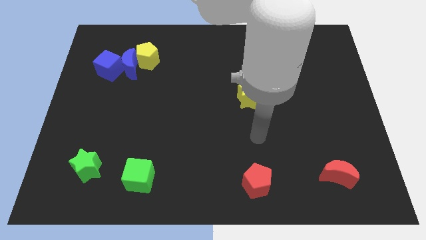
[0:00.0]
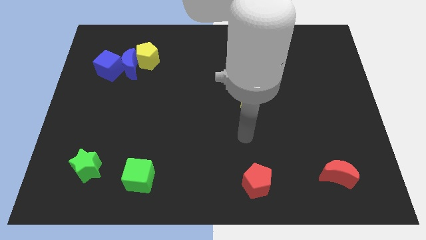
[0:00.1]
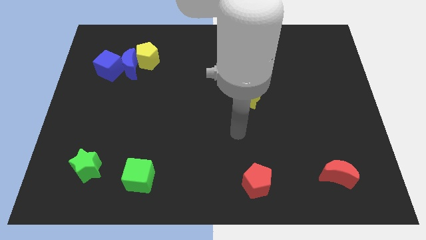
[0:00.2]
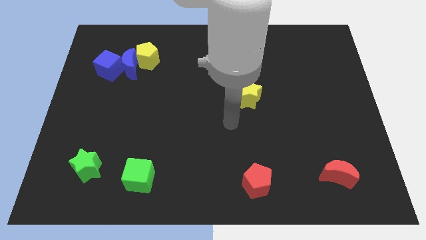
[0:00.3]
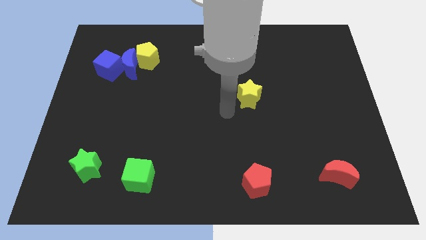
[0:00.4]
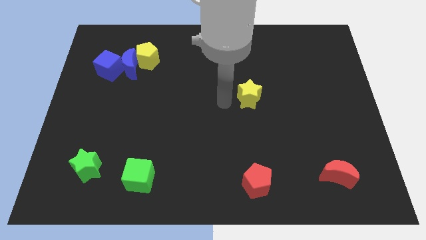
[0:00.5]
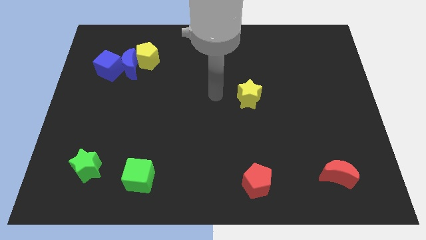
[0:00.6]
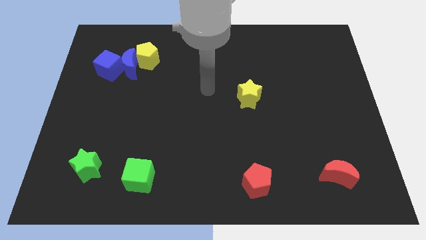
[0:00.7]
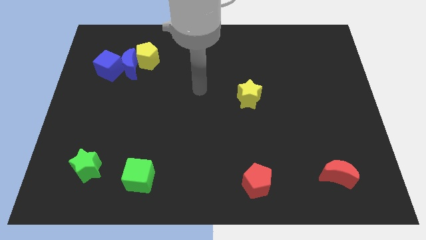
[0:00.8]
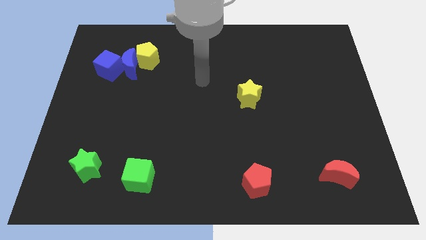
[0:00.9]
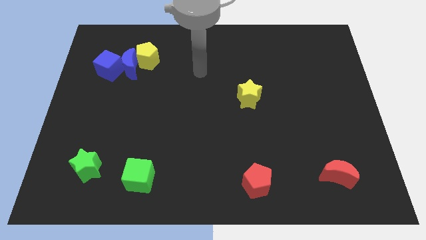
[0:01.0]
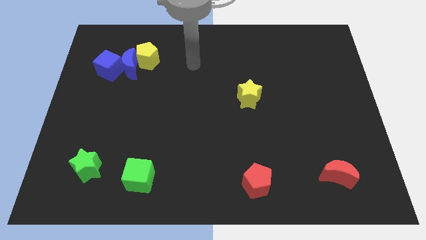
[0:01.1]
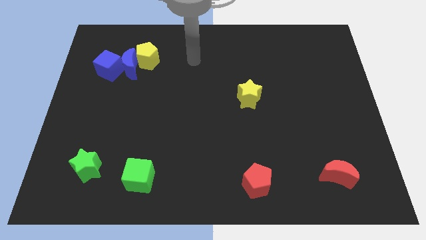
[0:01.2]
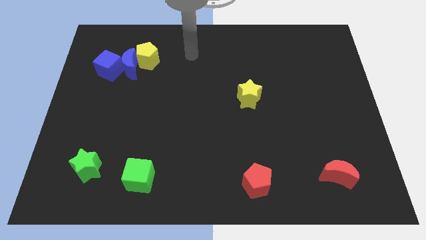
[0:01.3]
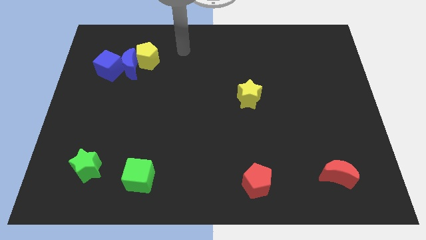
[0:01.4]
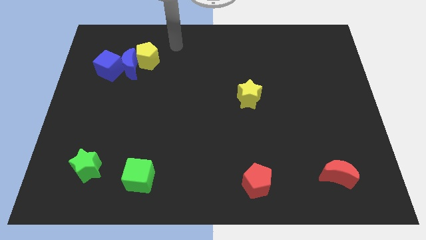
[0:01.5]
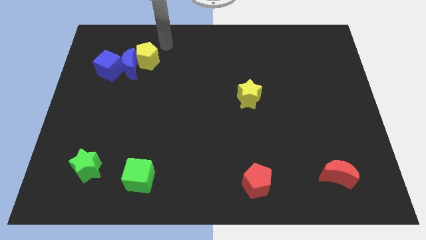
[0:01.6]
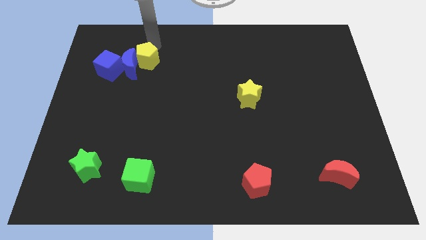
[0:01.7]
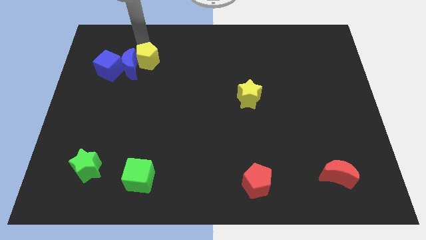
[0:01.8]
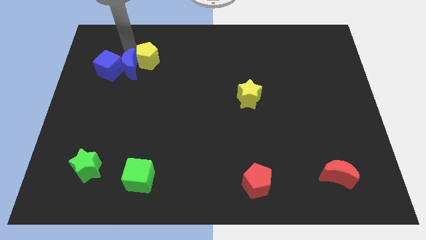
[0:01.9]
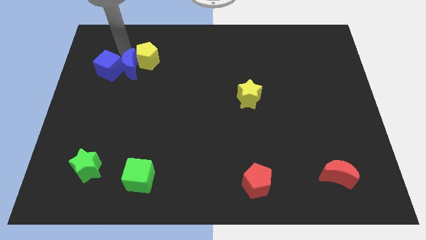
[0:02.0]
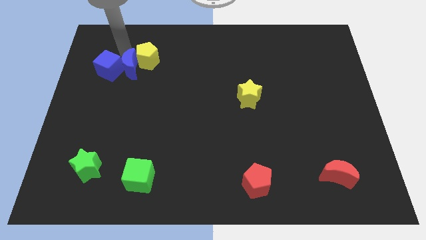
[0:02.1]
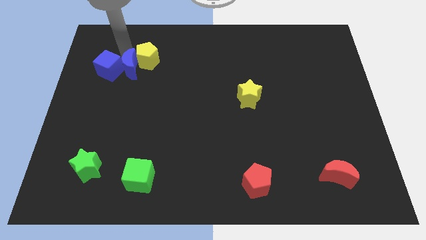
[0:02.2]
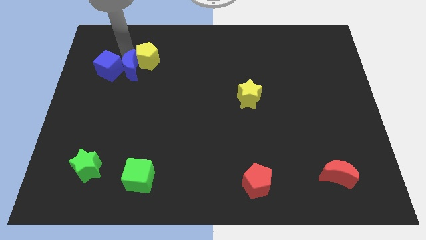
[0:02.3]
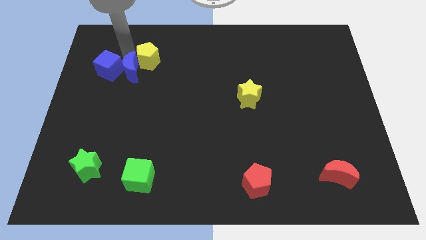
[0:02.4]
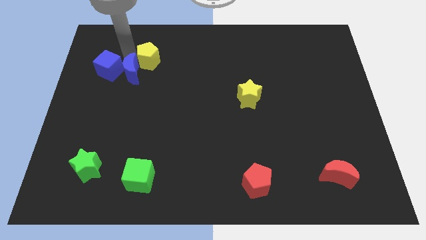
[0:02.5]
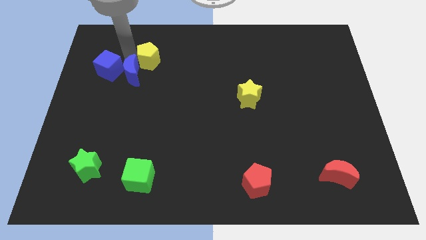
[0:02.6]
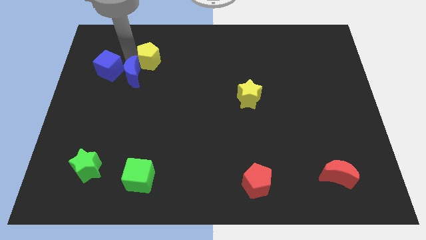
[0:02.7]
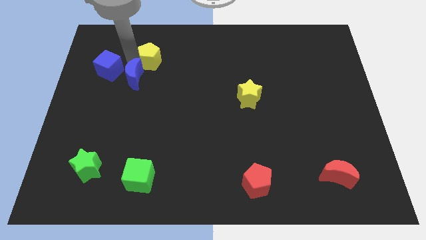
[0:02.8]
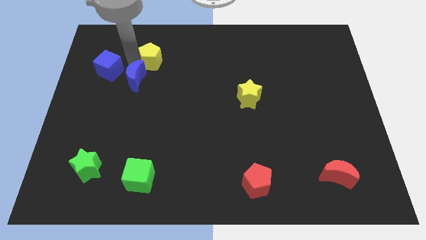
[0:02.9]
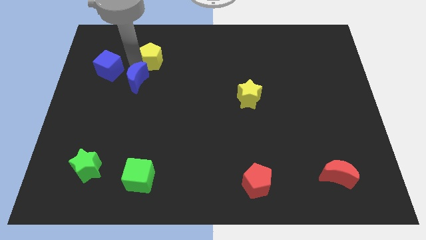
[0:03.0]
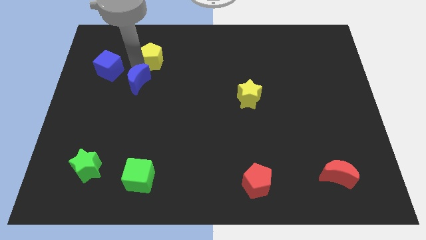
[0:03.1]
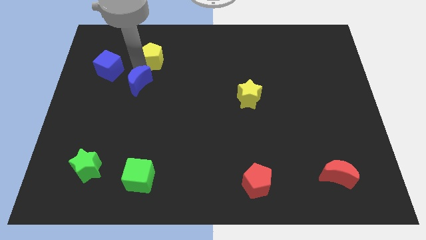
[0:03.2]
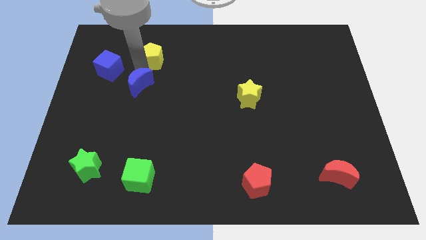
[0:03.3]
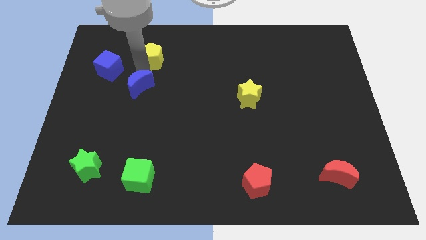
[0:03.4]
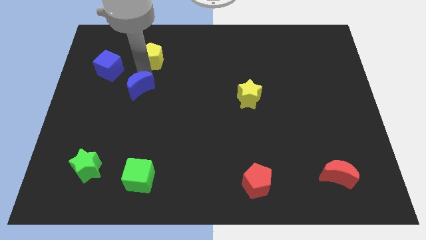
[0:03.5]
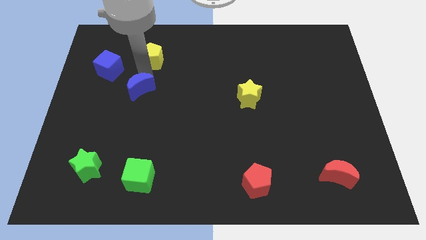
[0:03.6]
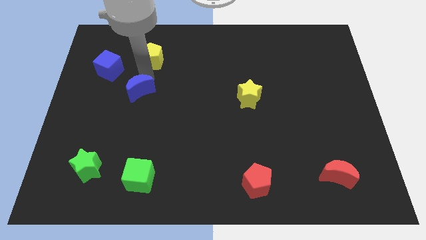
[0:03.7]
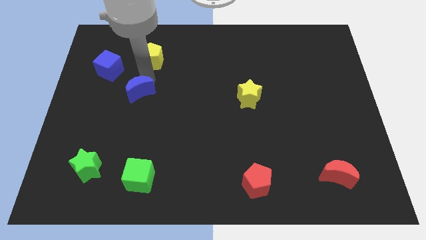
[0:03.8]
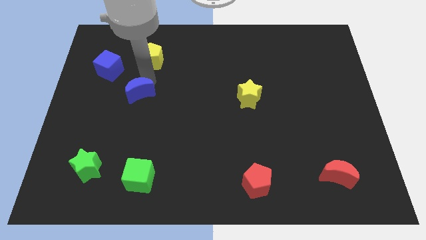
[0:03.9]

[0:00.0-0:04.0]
pull the blue moon apart from the blue cube and yellow pentagon

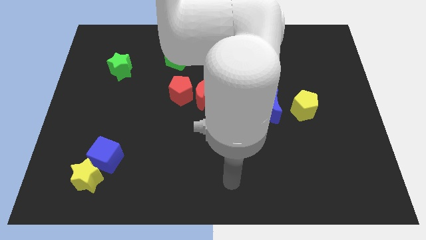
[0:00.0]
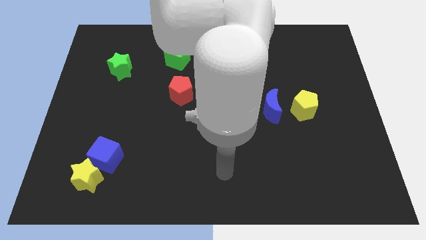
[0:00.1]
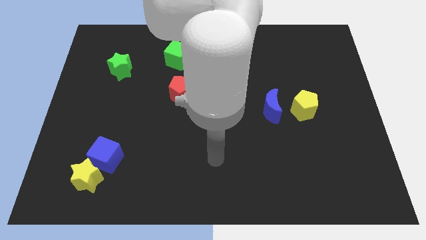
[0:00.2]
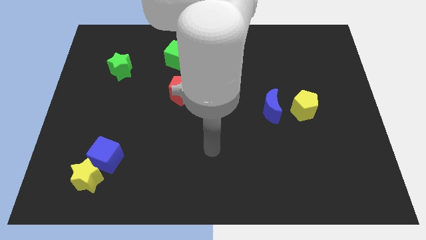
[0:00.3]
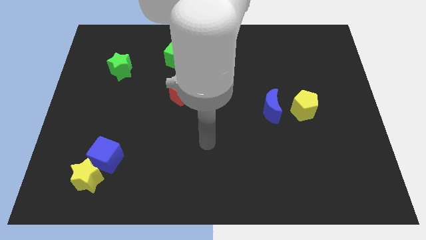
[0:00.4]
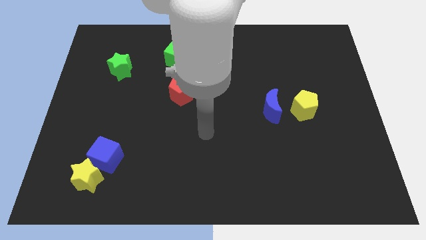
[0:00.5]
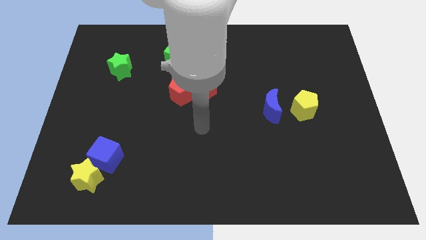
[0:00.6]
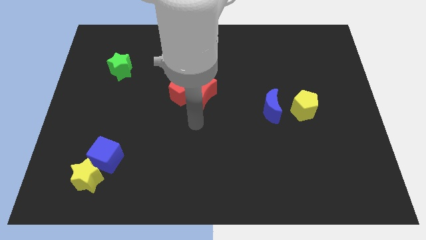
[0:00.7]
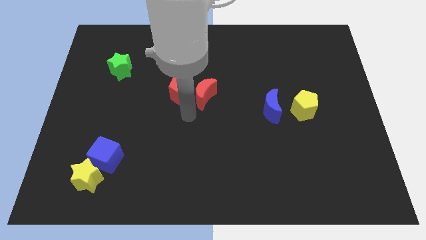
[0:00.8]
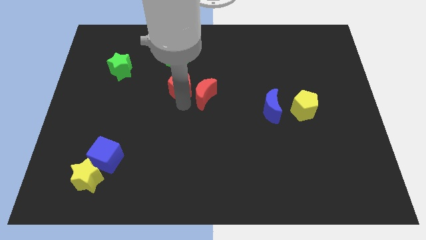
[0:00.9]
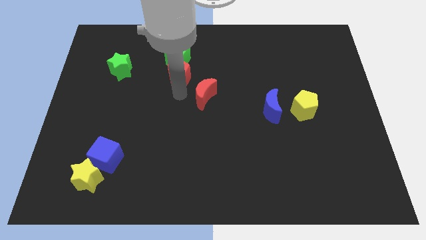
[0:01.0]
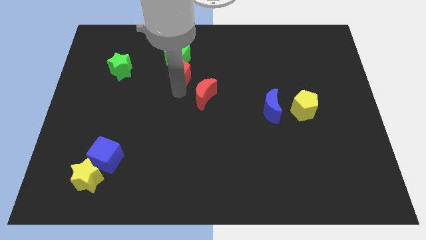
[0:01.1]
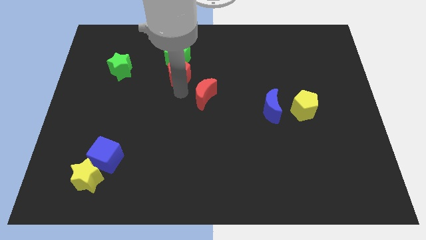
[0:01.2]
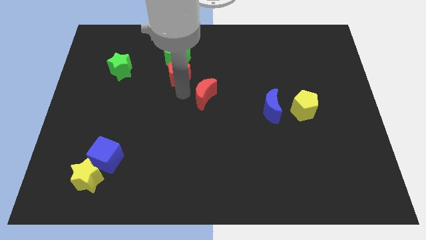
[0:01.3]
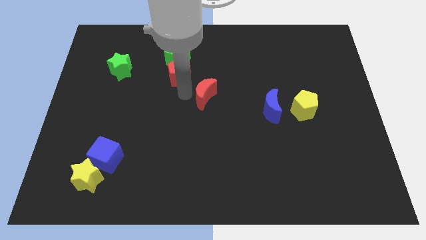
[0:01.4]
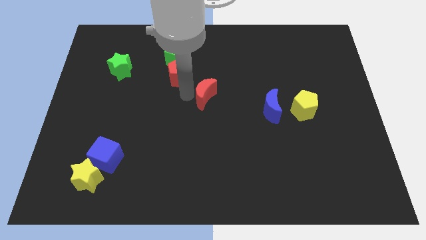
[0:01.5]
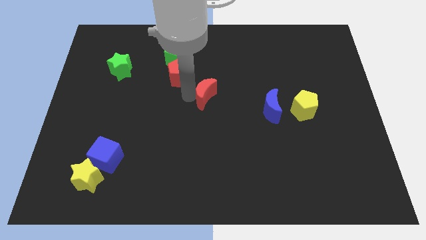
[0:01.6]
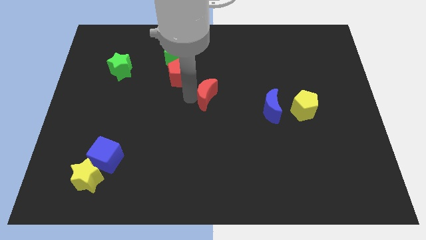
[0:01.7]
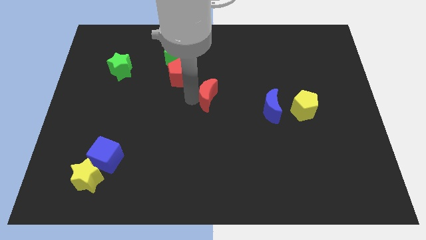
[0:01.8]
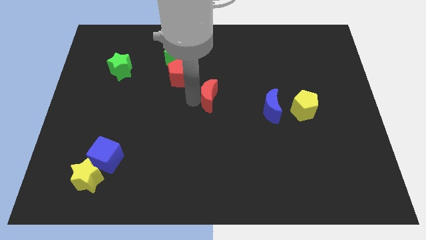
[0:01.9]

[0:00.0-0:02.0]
separate the red moon from the red pentagon

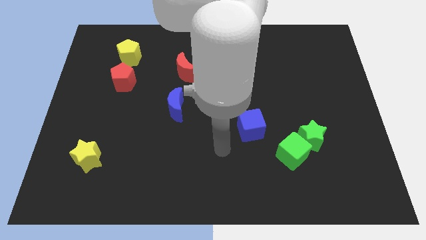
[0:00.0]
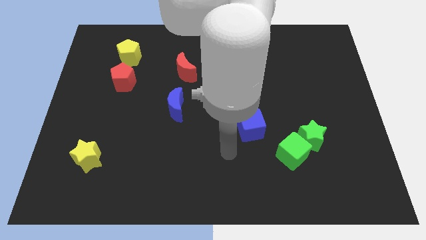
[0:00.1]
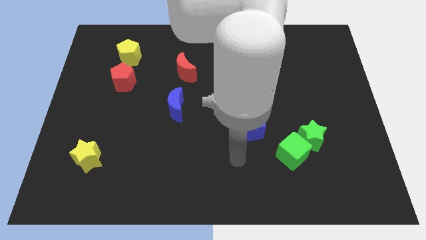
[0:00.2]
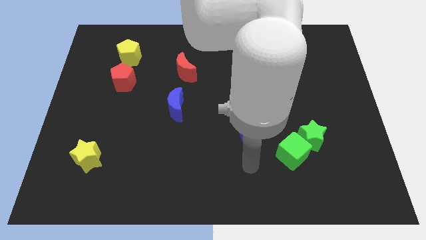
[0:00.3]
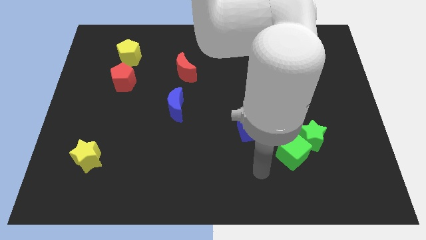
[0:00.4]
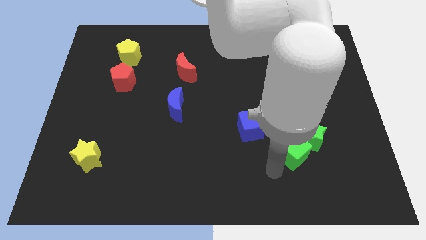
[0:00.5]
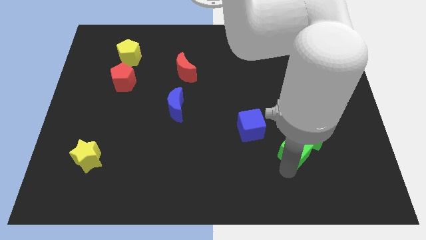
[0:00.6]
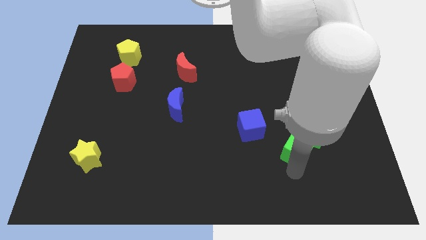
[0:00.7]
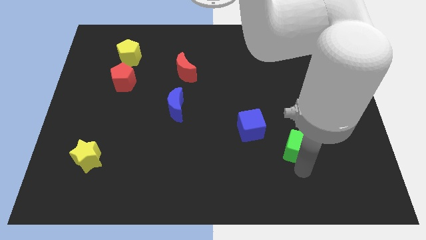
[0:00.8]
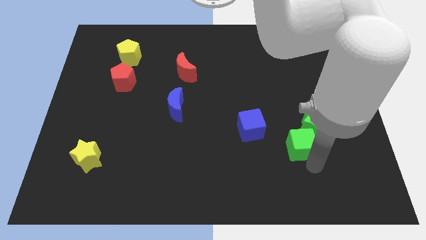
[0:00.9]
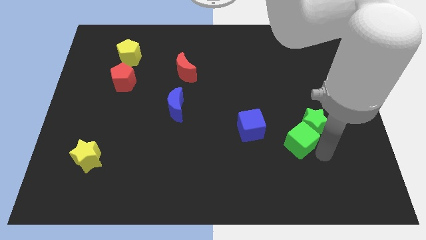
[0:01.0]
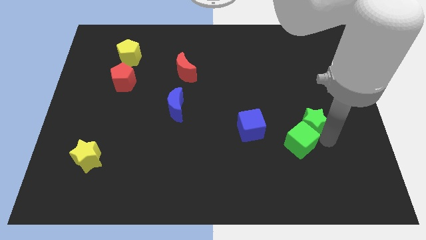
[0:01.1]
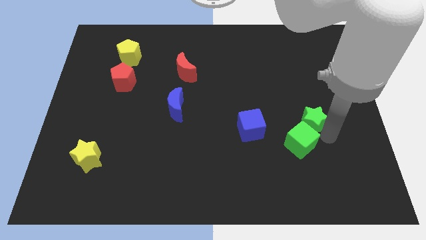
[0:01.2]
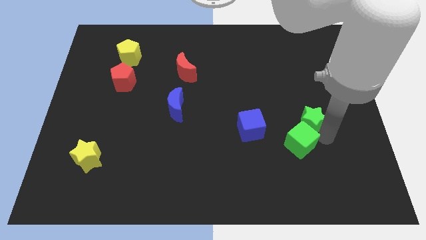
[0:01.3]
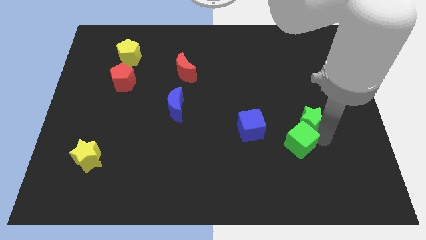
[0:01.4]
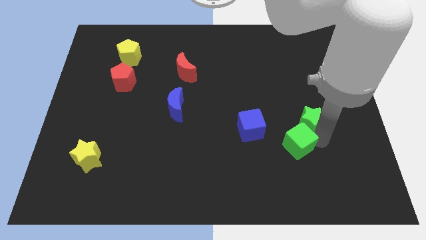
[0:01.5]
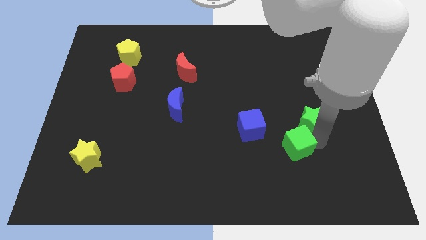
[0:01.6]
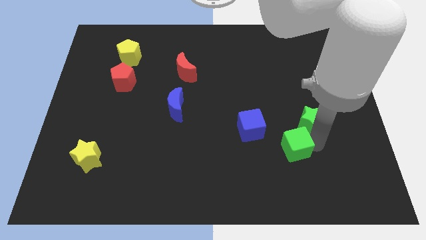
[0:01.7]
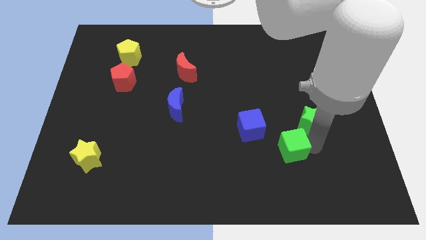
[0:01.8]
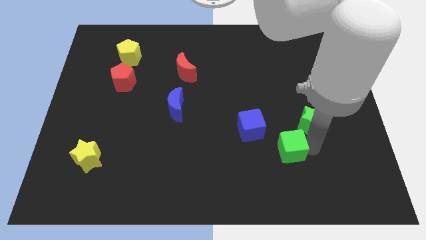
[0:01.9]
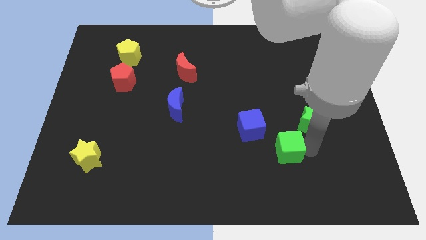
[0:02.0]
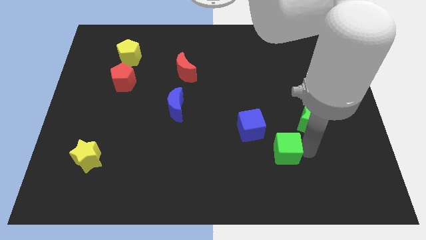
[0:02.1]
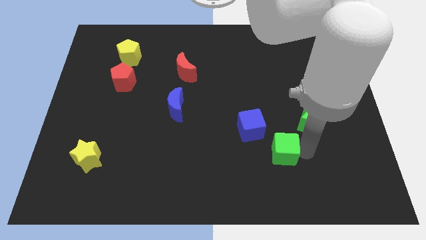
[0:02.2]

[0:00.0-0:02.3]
move the green cube away from the green star

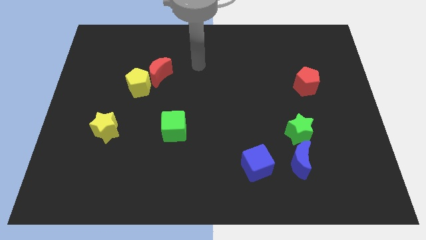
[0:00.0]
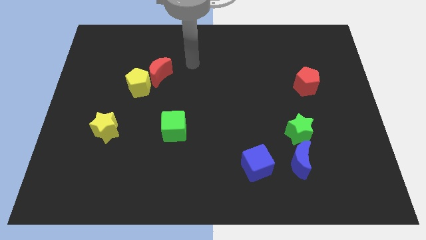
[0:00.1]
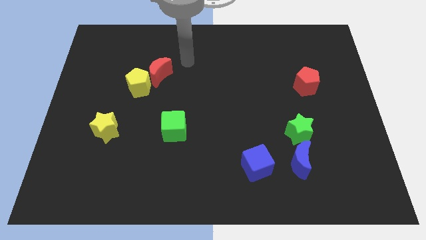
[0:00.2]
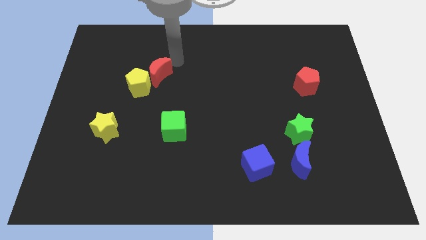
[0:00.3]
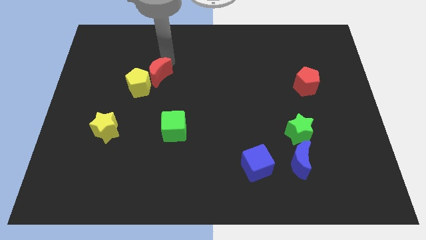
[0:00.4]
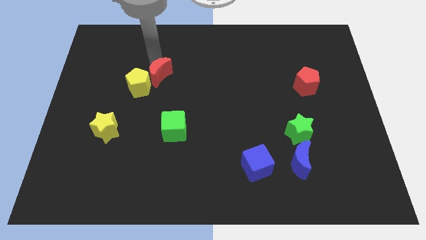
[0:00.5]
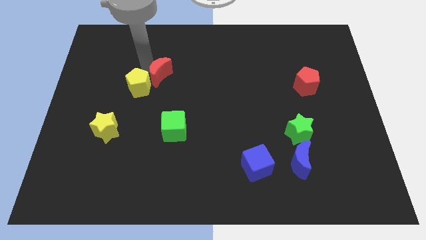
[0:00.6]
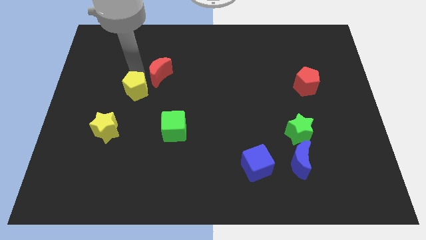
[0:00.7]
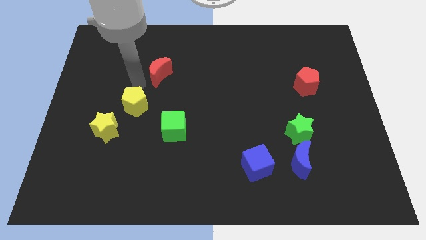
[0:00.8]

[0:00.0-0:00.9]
move the red moon away from the yellow pentagon

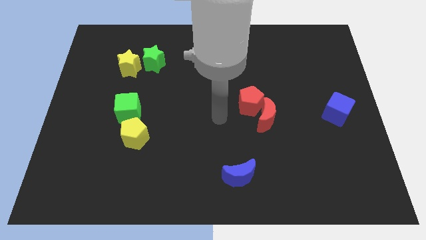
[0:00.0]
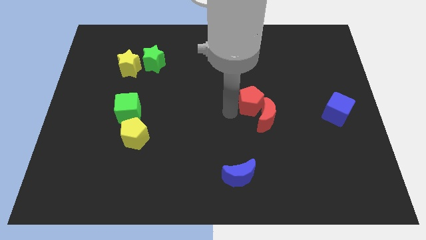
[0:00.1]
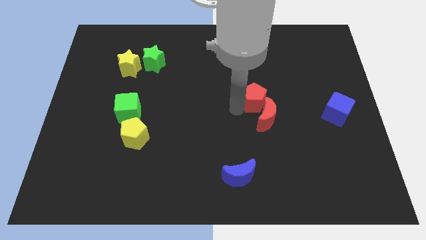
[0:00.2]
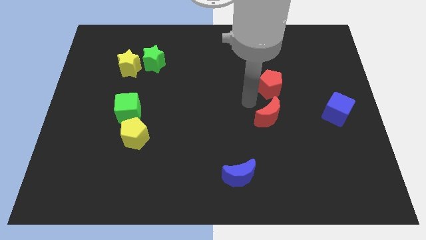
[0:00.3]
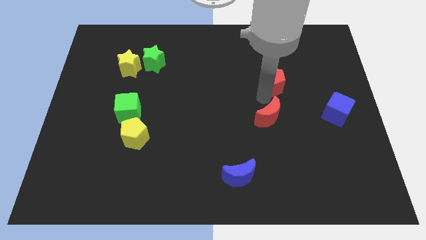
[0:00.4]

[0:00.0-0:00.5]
move the red moon away from the red pentagon
